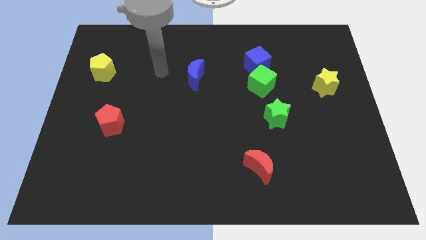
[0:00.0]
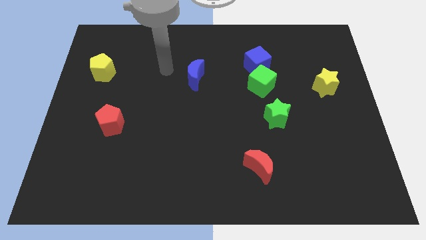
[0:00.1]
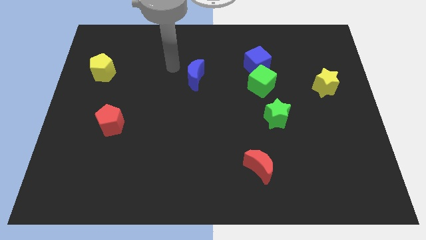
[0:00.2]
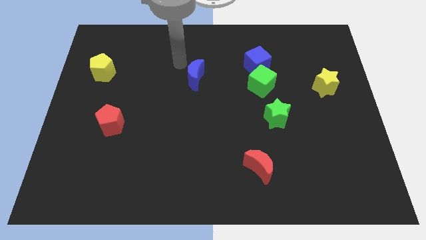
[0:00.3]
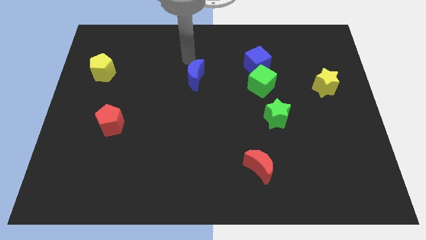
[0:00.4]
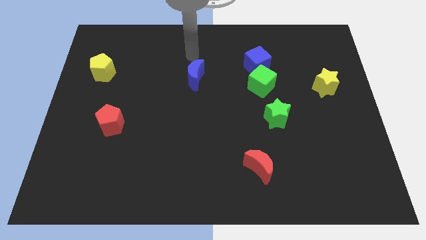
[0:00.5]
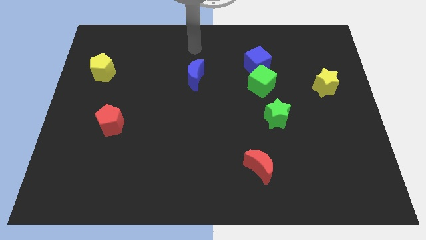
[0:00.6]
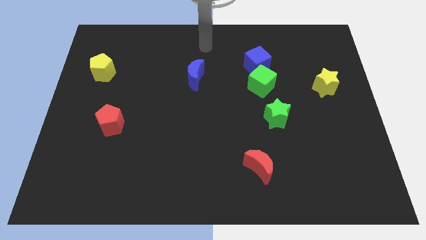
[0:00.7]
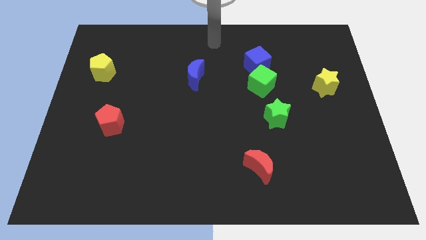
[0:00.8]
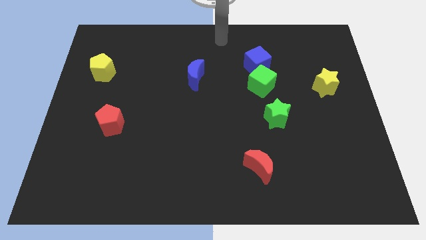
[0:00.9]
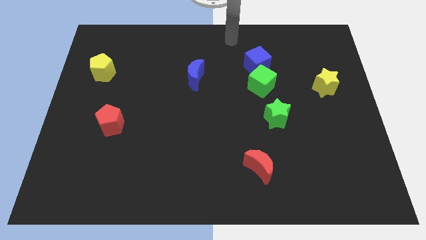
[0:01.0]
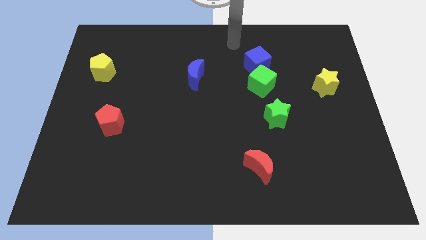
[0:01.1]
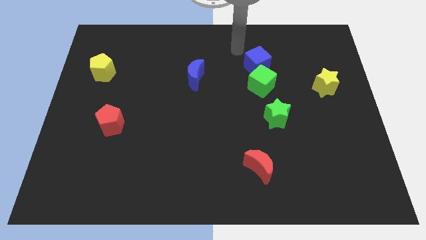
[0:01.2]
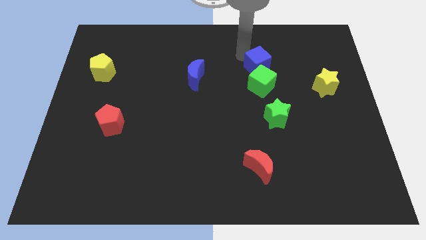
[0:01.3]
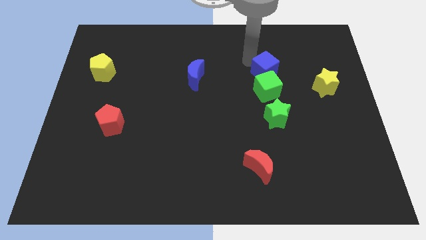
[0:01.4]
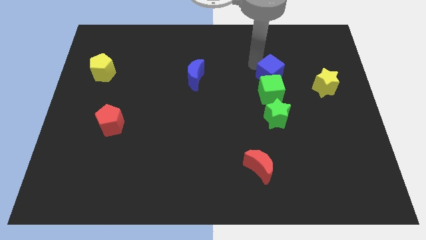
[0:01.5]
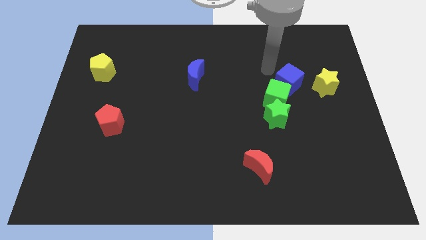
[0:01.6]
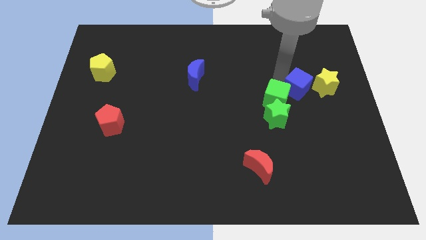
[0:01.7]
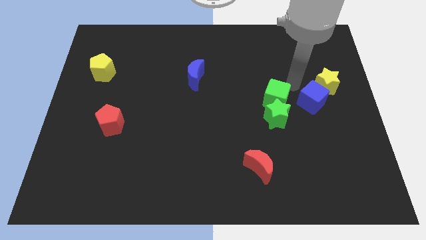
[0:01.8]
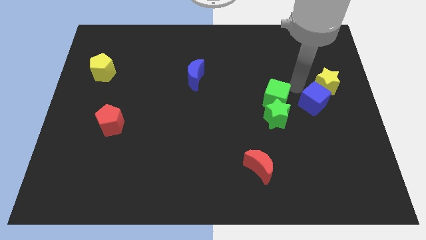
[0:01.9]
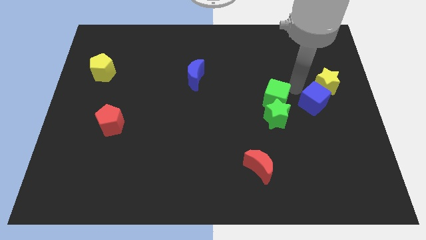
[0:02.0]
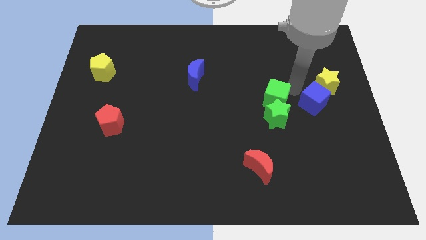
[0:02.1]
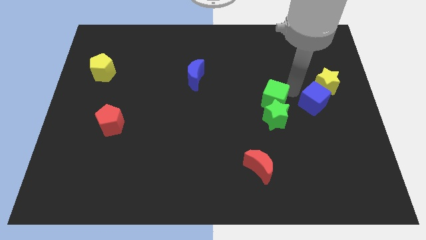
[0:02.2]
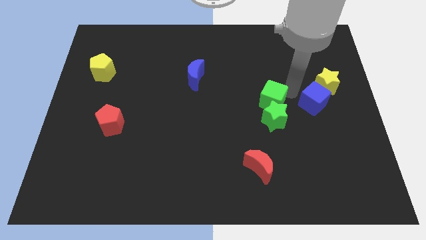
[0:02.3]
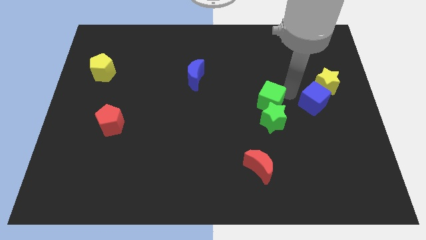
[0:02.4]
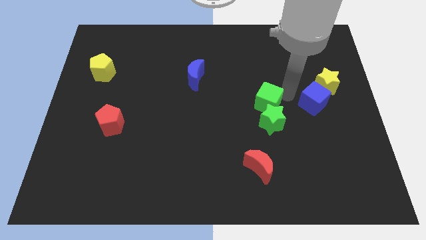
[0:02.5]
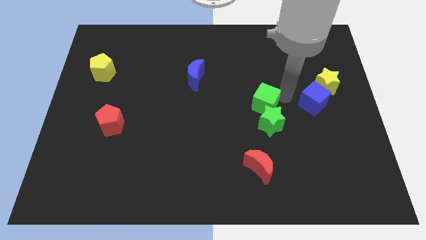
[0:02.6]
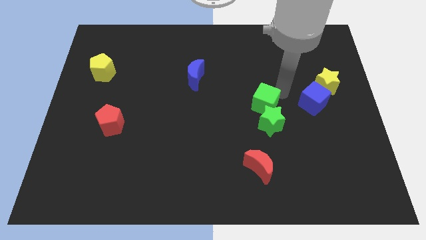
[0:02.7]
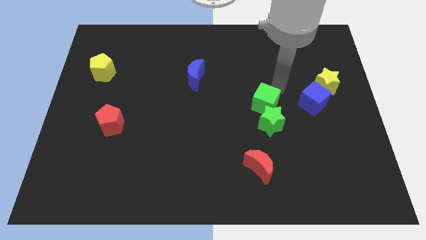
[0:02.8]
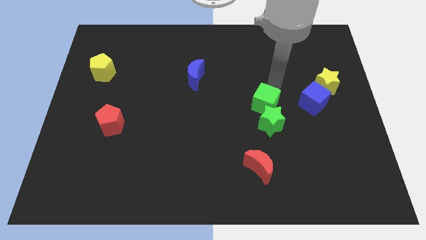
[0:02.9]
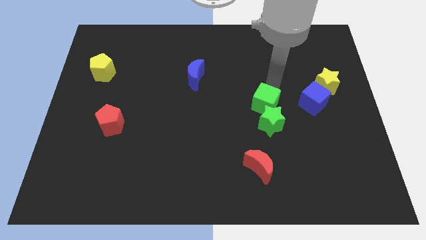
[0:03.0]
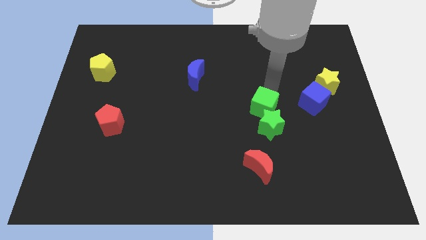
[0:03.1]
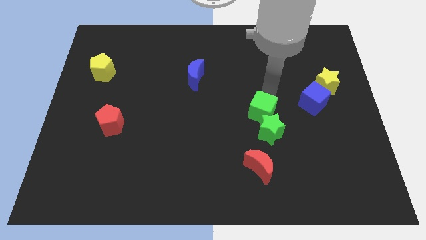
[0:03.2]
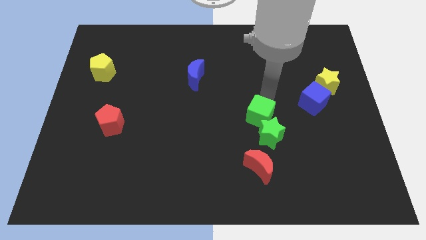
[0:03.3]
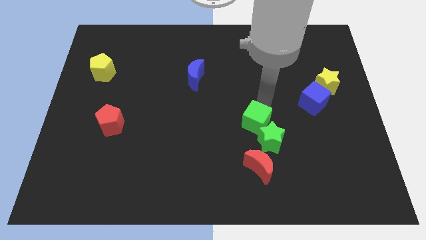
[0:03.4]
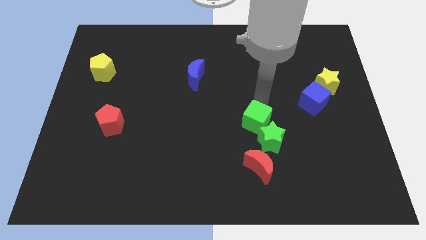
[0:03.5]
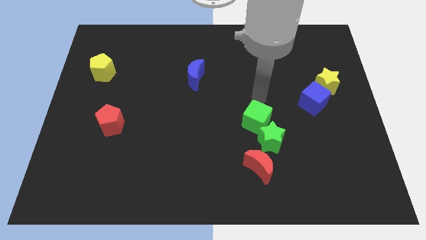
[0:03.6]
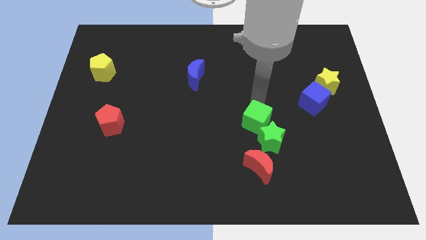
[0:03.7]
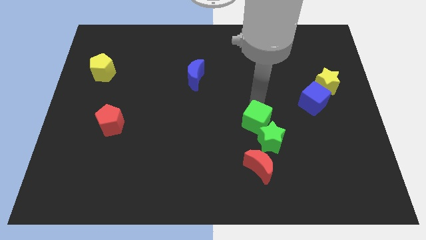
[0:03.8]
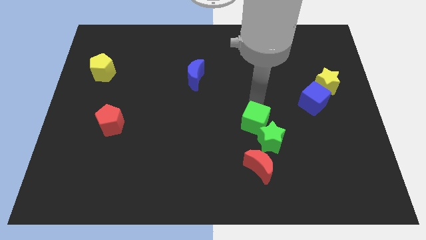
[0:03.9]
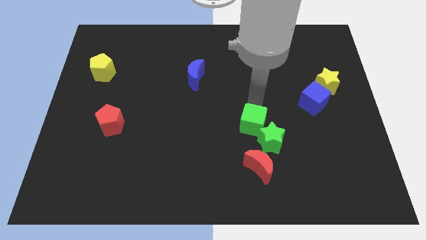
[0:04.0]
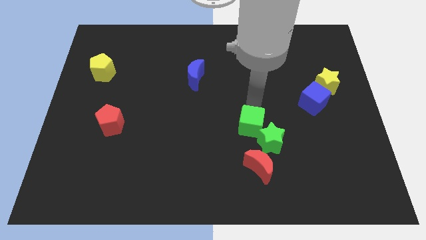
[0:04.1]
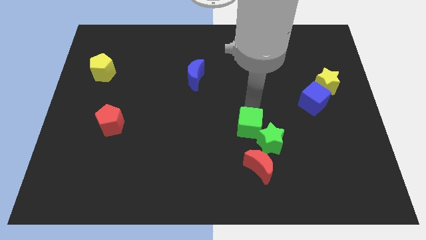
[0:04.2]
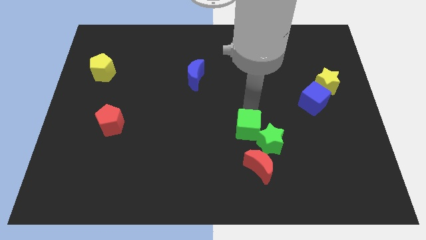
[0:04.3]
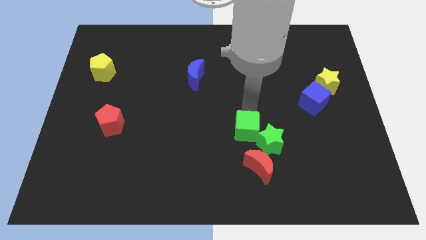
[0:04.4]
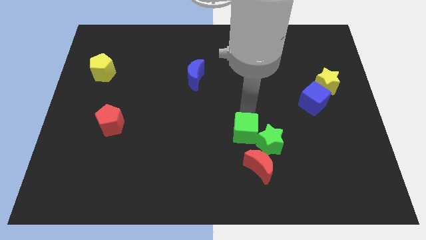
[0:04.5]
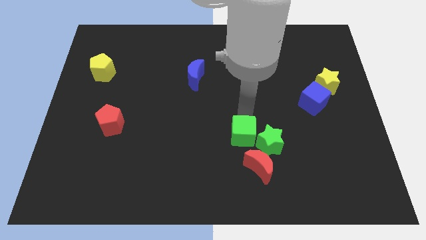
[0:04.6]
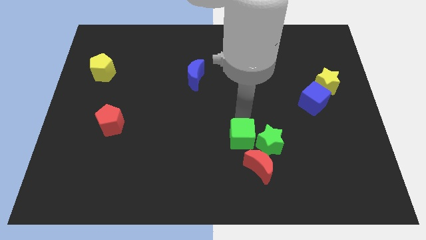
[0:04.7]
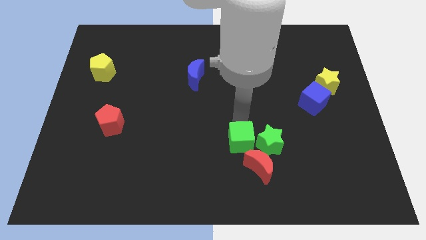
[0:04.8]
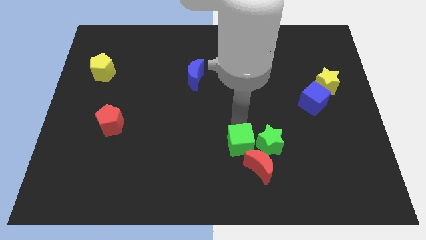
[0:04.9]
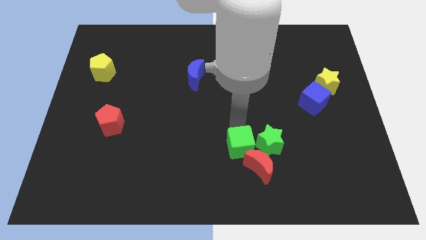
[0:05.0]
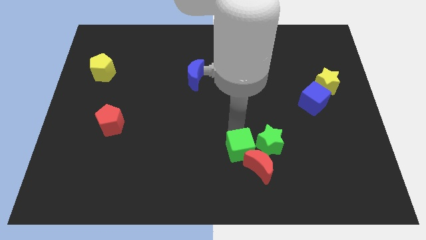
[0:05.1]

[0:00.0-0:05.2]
put the green cube to the red moon

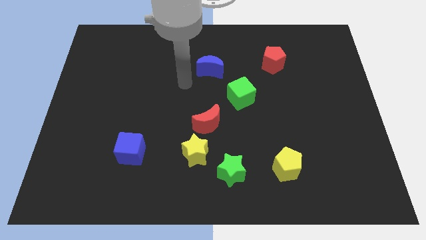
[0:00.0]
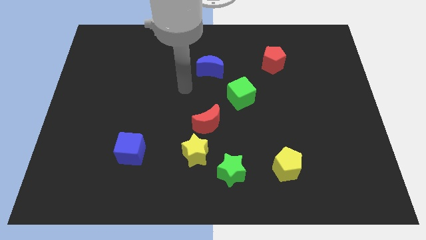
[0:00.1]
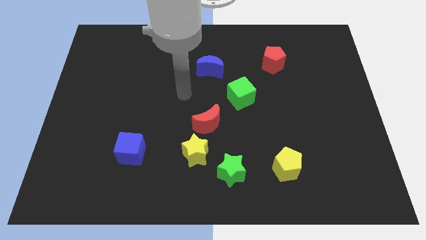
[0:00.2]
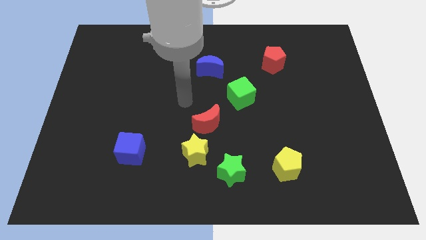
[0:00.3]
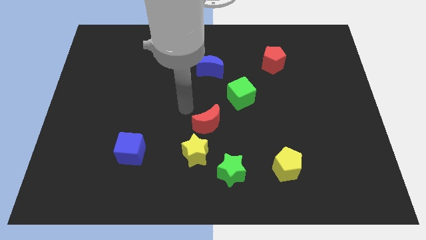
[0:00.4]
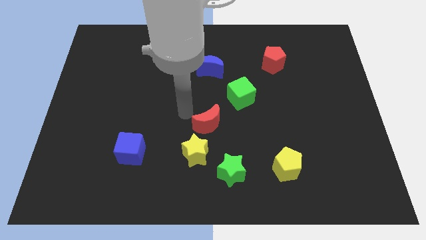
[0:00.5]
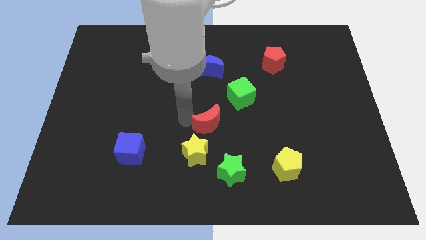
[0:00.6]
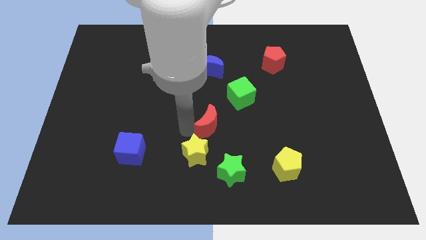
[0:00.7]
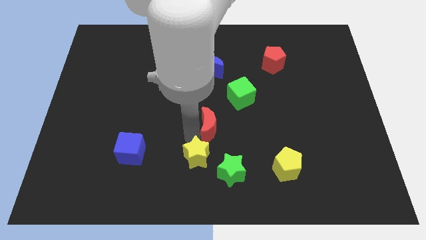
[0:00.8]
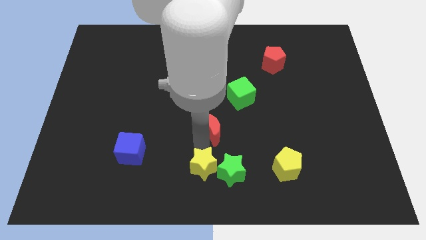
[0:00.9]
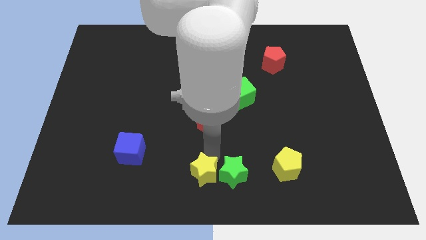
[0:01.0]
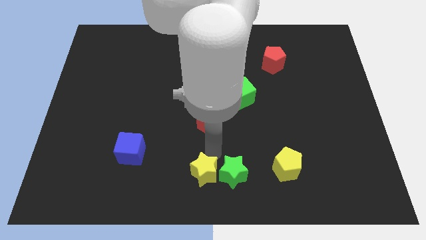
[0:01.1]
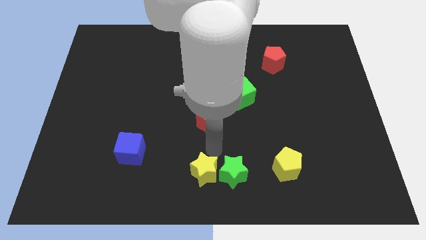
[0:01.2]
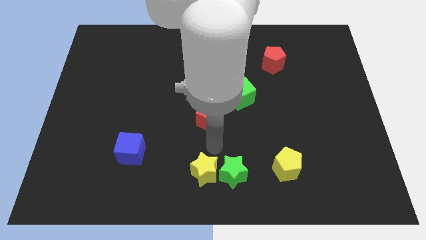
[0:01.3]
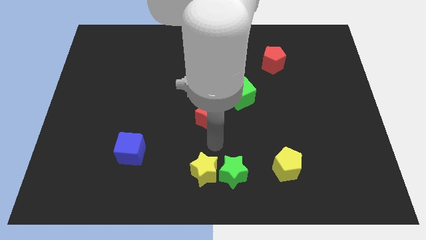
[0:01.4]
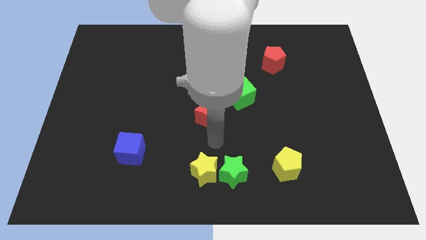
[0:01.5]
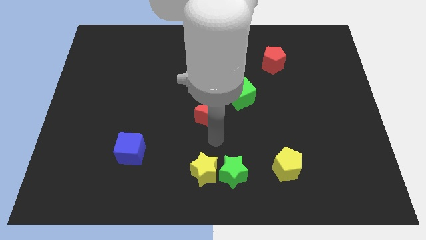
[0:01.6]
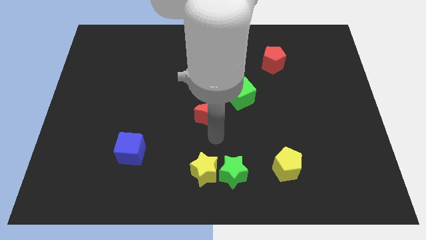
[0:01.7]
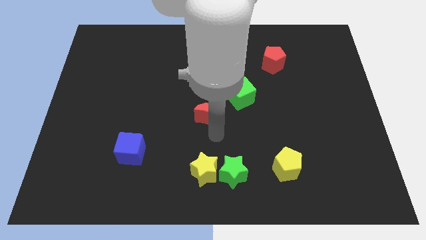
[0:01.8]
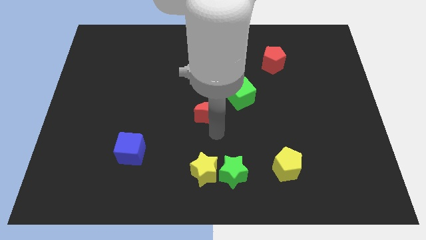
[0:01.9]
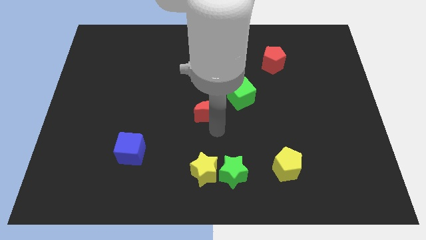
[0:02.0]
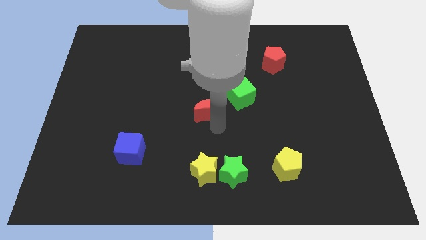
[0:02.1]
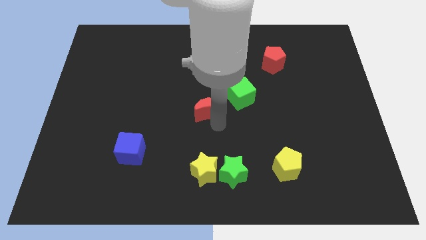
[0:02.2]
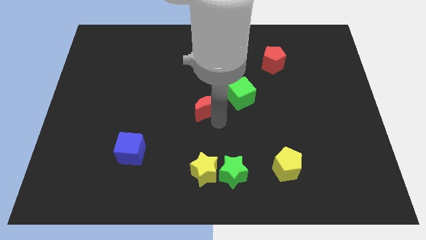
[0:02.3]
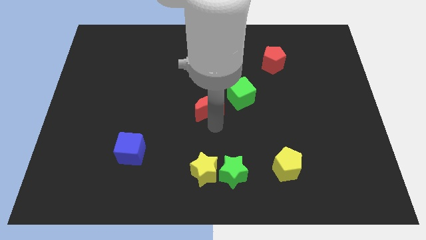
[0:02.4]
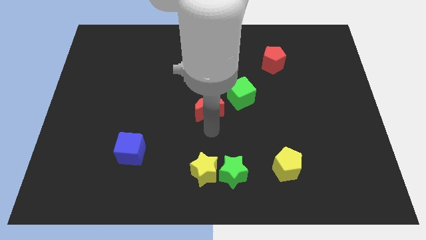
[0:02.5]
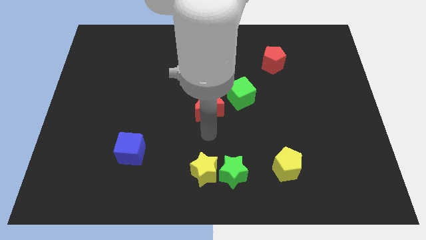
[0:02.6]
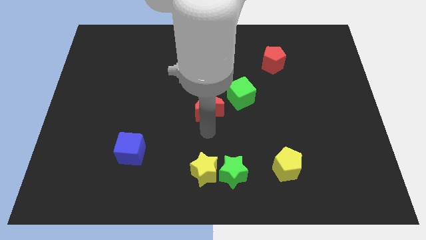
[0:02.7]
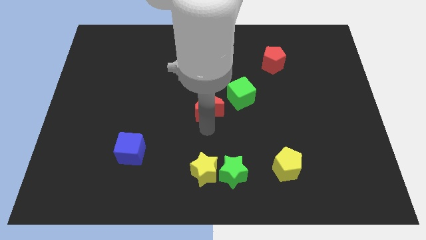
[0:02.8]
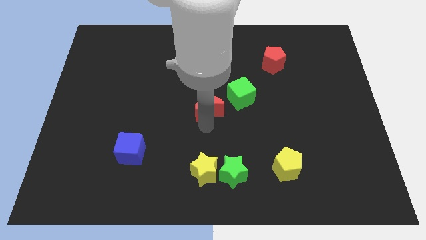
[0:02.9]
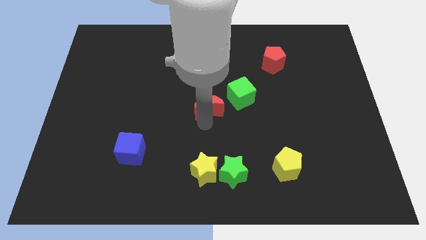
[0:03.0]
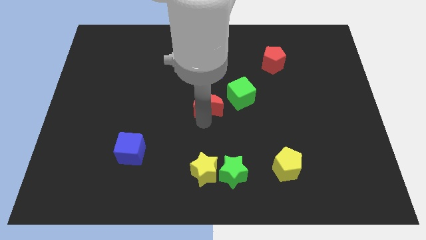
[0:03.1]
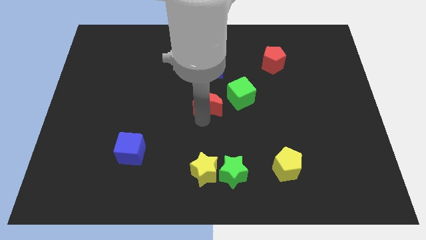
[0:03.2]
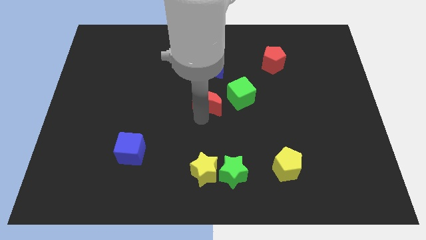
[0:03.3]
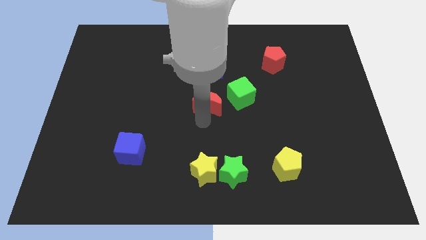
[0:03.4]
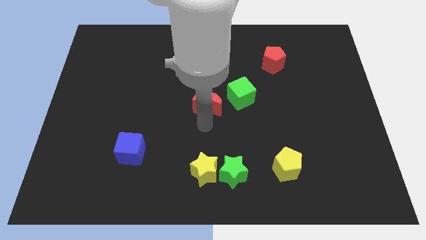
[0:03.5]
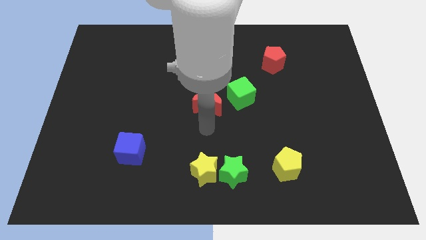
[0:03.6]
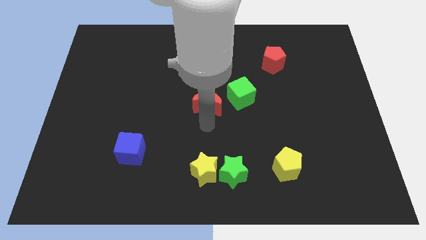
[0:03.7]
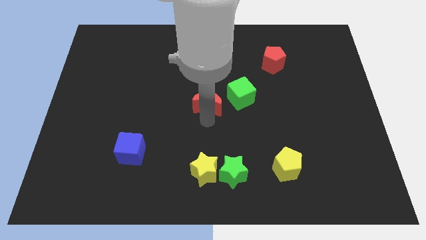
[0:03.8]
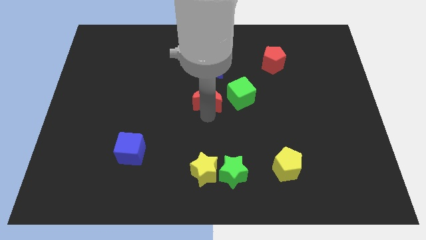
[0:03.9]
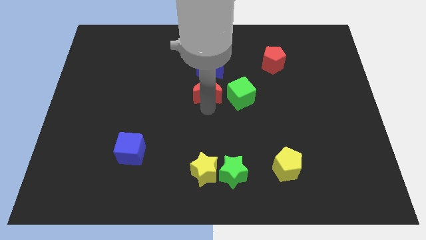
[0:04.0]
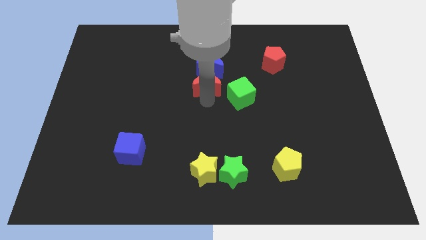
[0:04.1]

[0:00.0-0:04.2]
move the red moon to the blue moon
